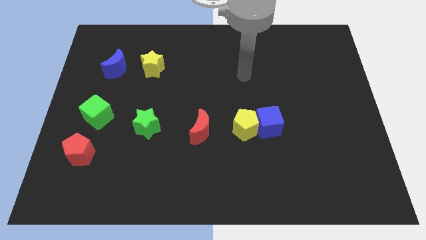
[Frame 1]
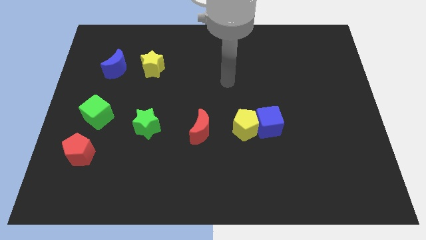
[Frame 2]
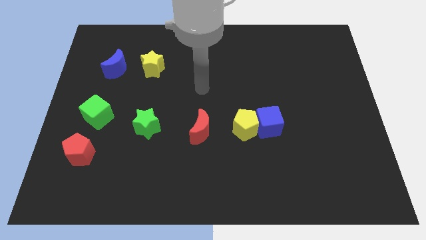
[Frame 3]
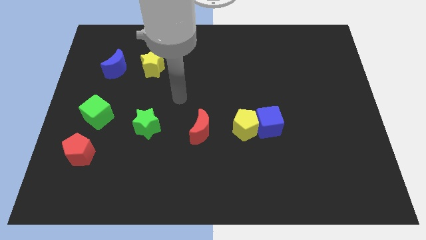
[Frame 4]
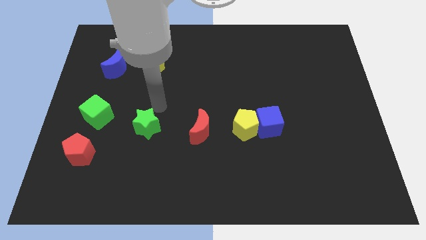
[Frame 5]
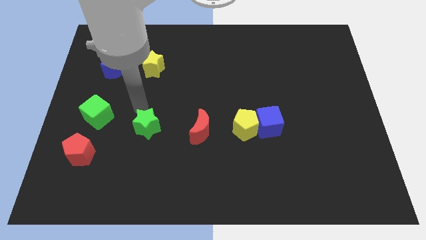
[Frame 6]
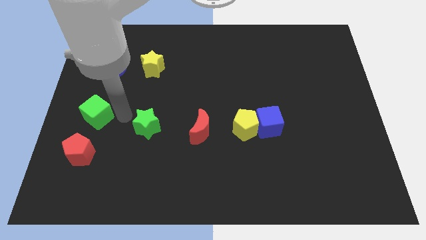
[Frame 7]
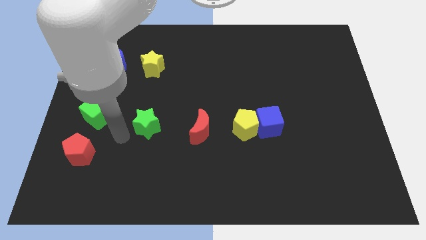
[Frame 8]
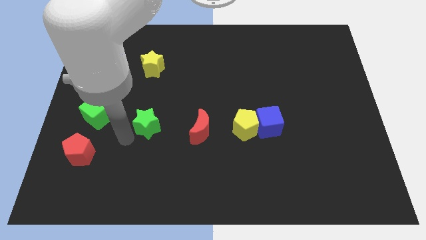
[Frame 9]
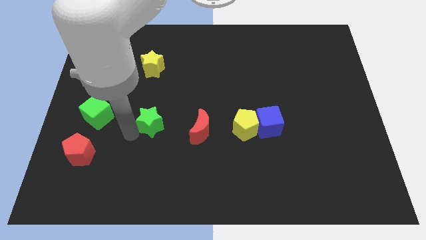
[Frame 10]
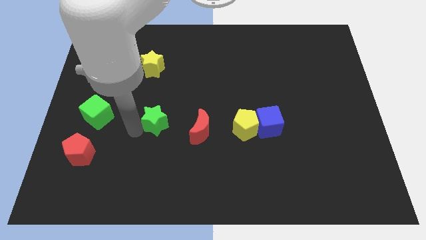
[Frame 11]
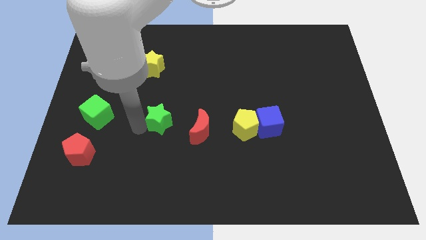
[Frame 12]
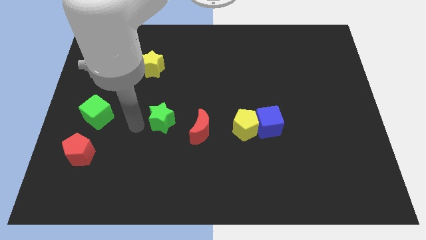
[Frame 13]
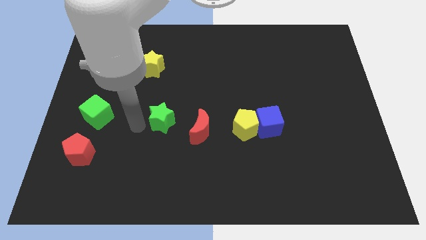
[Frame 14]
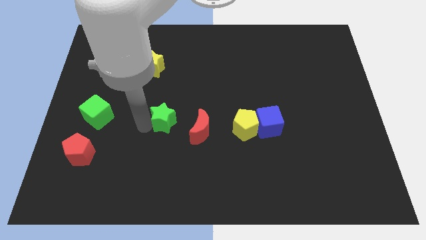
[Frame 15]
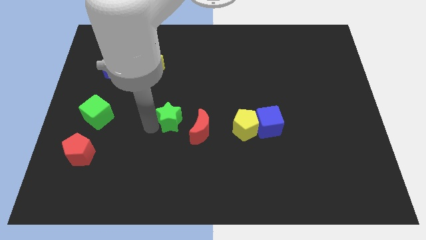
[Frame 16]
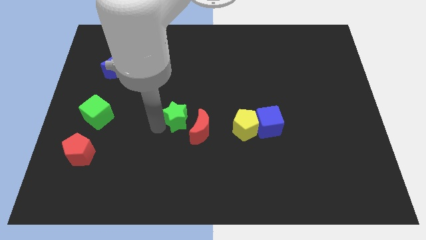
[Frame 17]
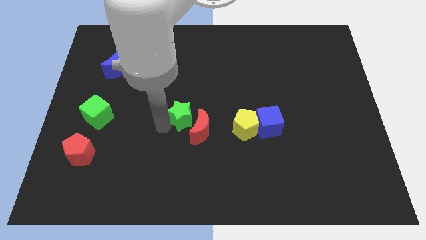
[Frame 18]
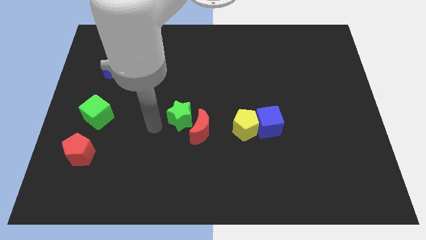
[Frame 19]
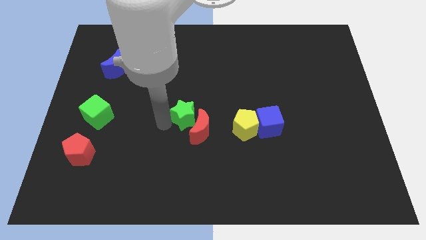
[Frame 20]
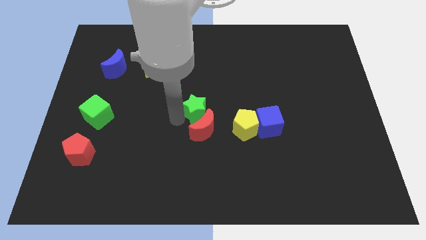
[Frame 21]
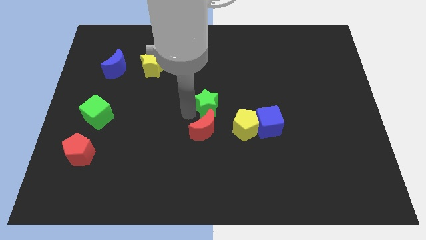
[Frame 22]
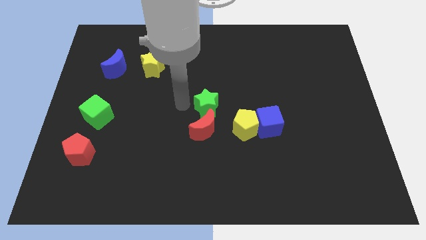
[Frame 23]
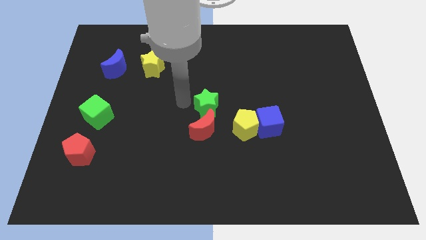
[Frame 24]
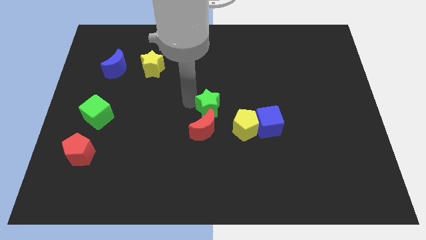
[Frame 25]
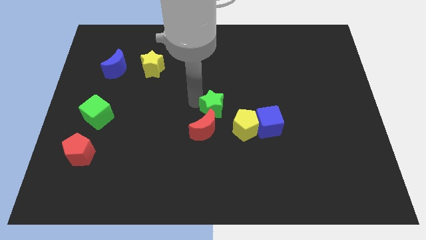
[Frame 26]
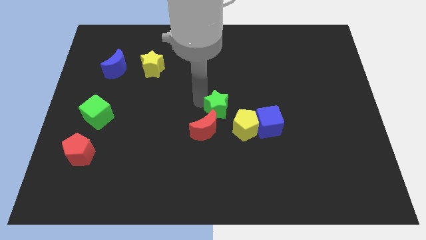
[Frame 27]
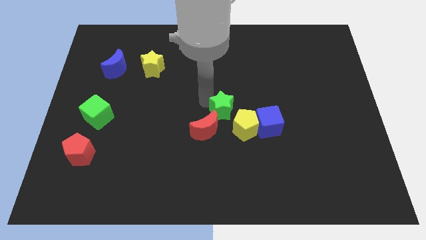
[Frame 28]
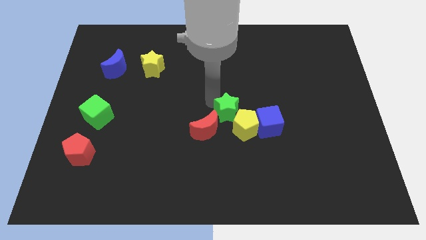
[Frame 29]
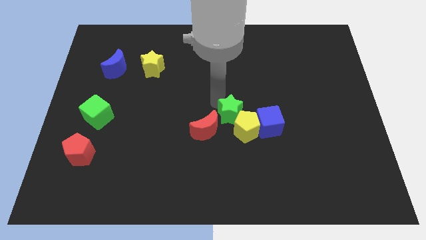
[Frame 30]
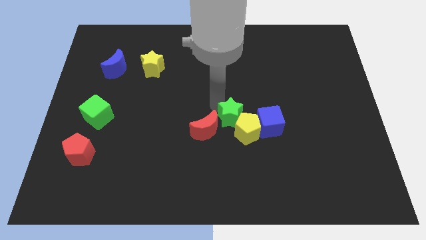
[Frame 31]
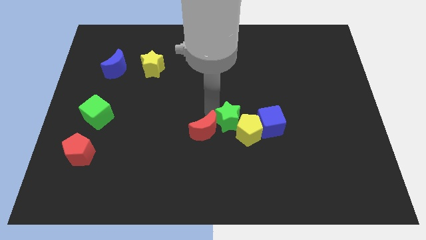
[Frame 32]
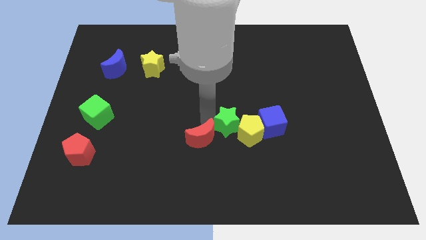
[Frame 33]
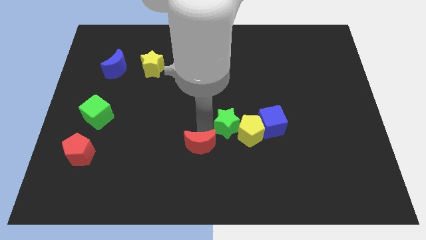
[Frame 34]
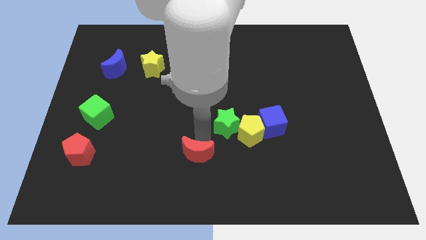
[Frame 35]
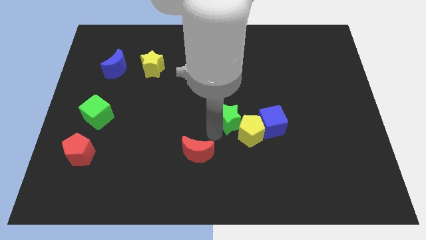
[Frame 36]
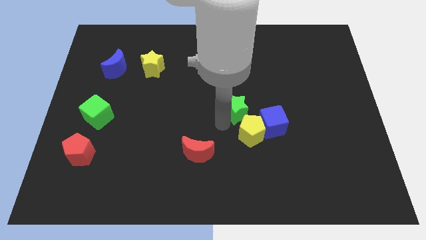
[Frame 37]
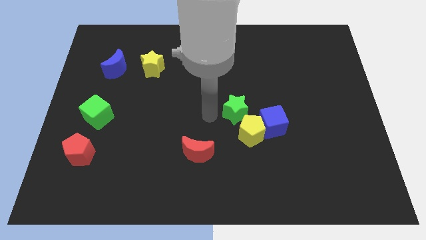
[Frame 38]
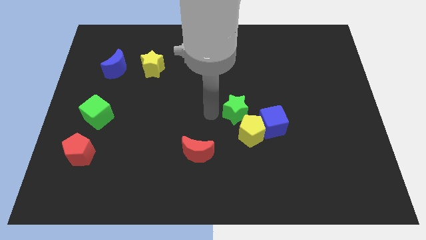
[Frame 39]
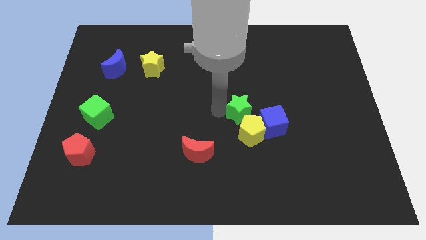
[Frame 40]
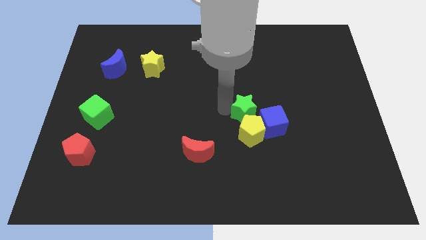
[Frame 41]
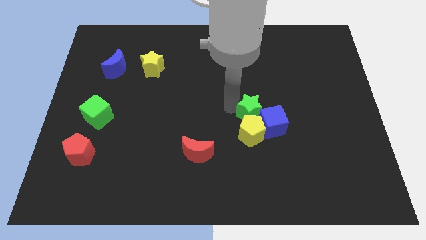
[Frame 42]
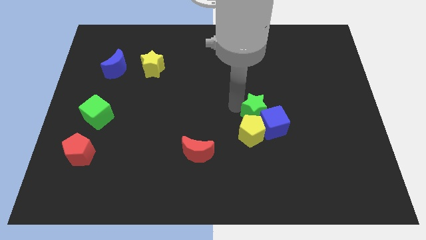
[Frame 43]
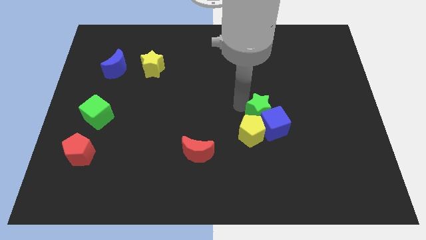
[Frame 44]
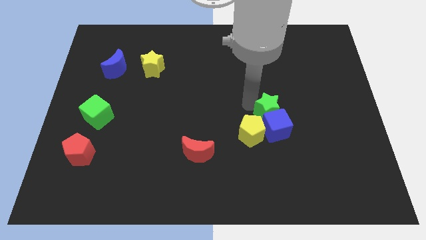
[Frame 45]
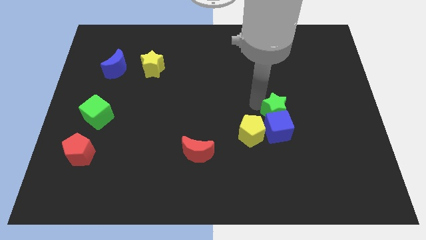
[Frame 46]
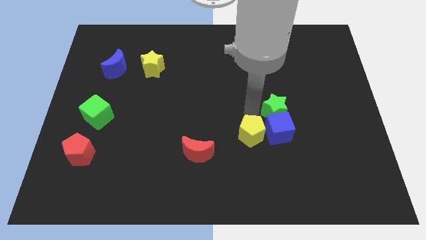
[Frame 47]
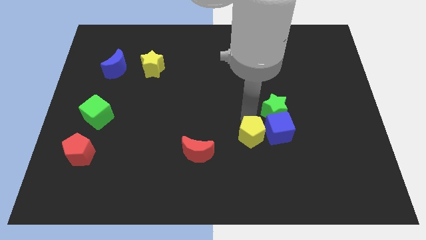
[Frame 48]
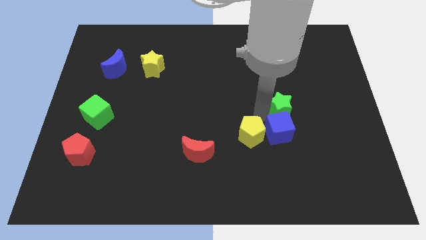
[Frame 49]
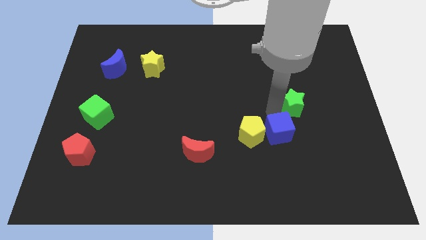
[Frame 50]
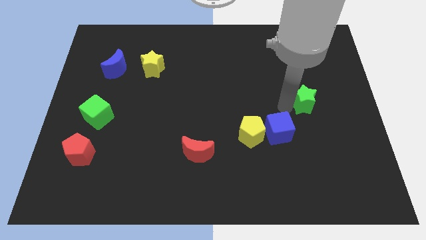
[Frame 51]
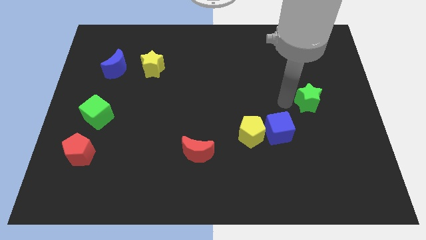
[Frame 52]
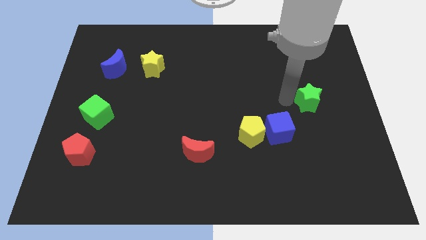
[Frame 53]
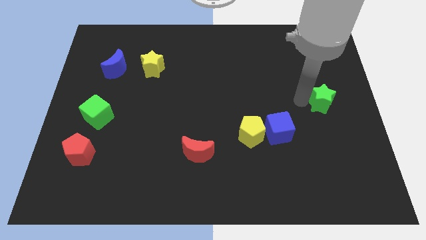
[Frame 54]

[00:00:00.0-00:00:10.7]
slide the green star to the center right

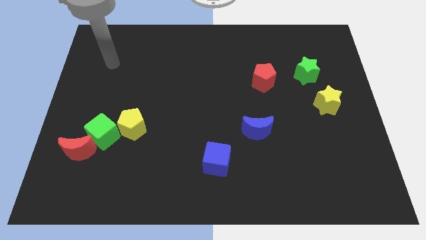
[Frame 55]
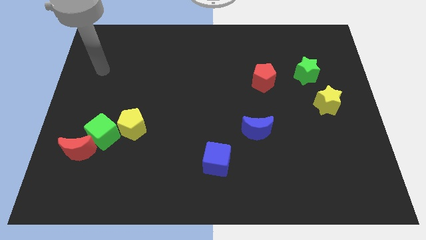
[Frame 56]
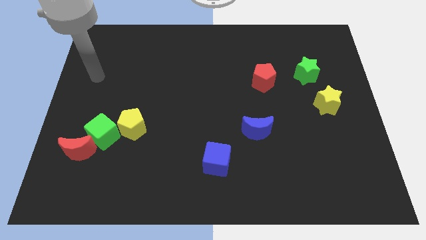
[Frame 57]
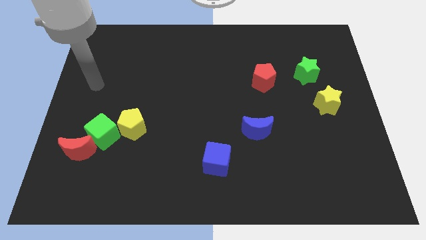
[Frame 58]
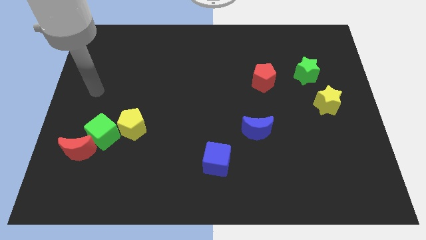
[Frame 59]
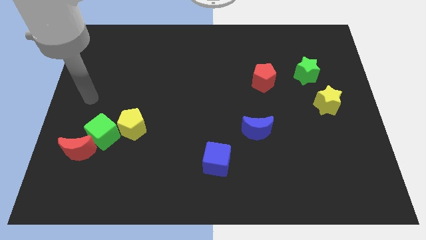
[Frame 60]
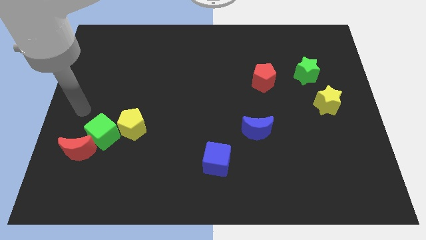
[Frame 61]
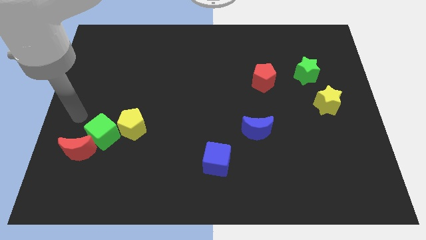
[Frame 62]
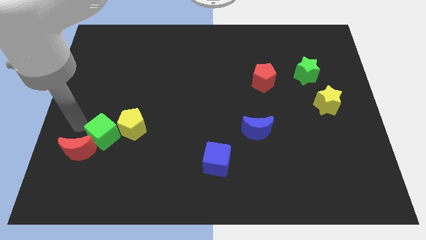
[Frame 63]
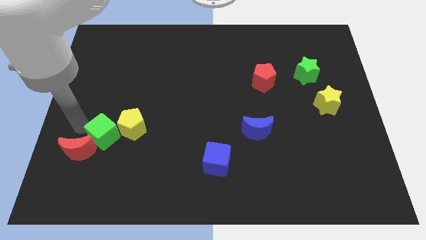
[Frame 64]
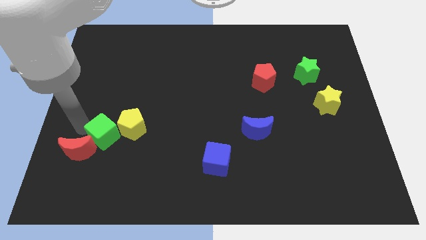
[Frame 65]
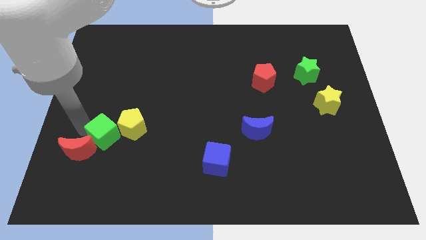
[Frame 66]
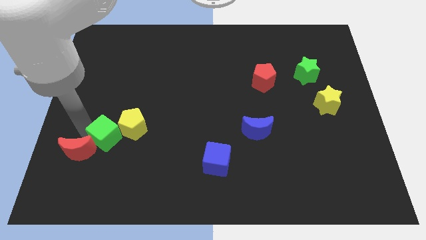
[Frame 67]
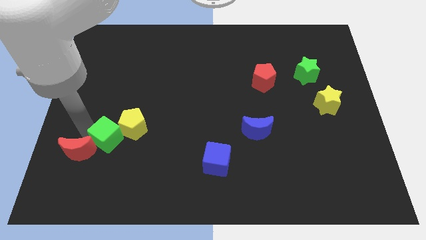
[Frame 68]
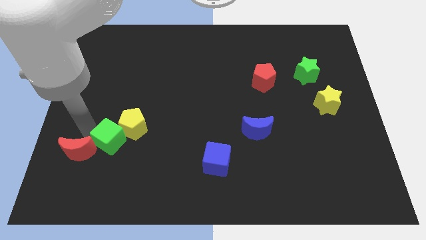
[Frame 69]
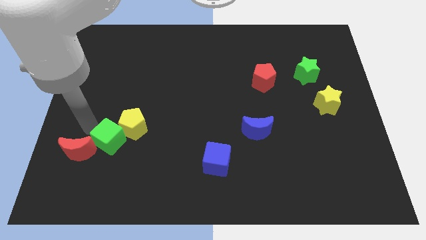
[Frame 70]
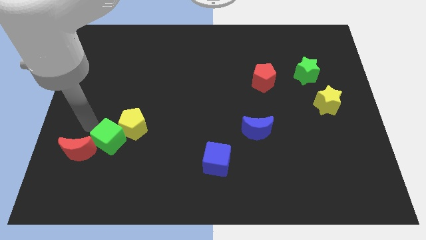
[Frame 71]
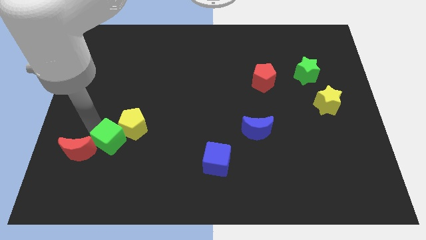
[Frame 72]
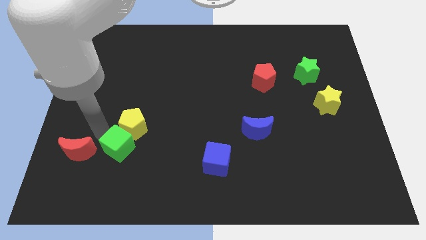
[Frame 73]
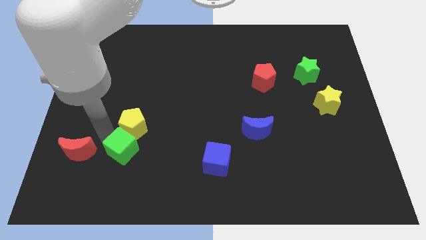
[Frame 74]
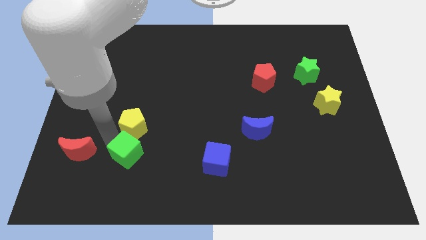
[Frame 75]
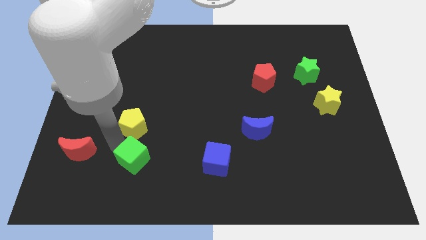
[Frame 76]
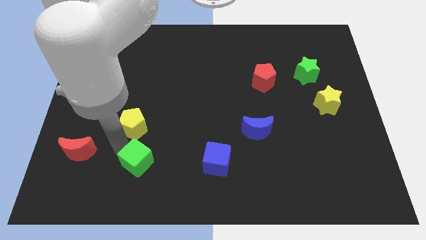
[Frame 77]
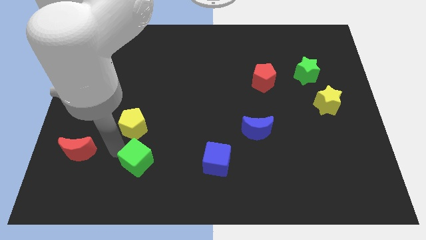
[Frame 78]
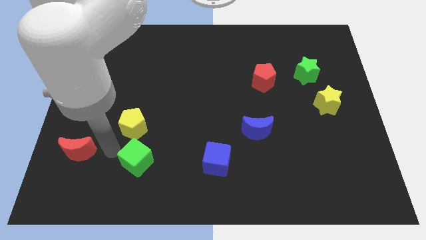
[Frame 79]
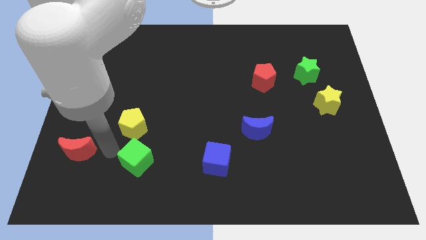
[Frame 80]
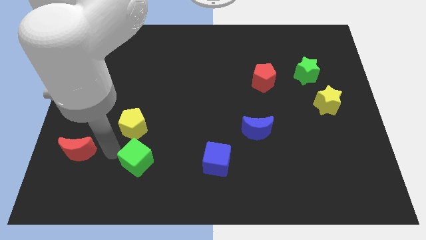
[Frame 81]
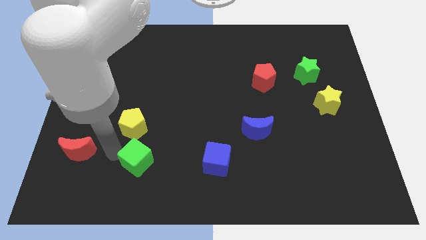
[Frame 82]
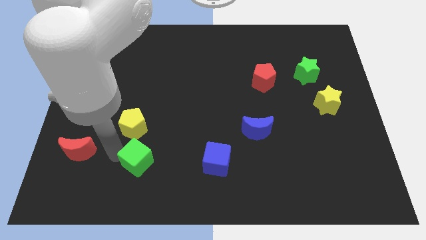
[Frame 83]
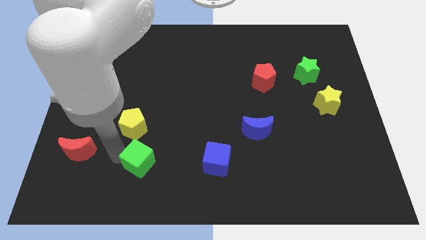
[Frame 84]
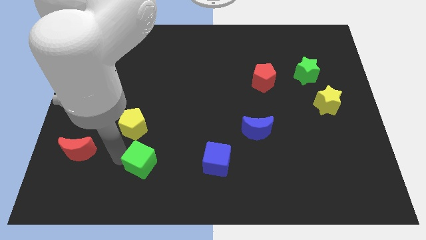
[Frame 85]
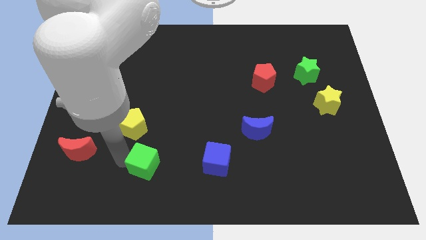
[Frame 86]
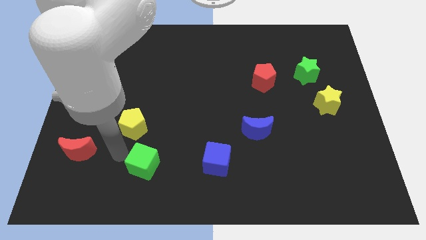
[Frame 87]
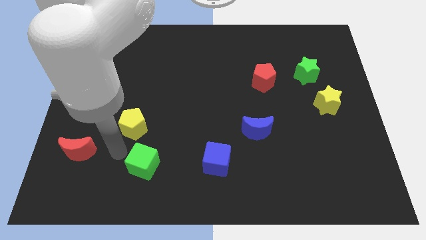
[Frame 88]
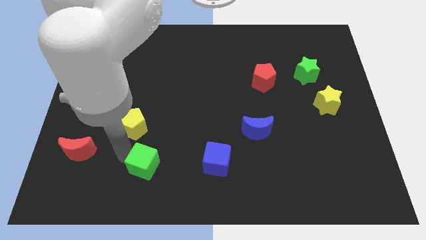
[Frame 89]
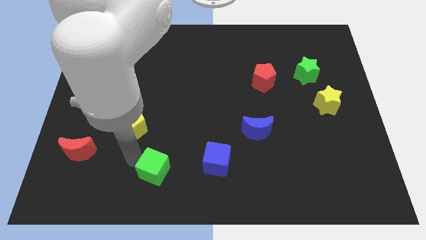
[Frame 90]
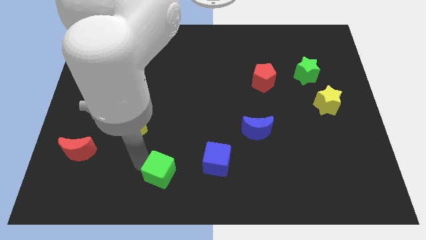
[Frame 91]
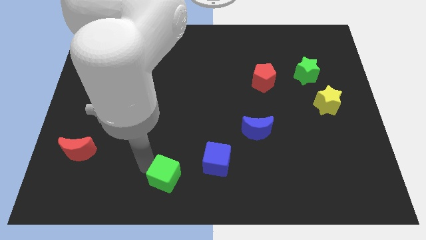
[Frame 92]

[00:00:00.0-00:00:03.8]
move the green cube to the bottom
